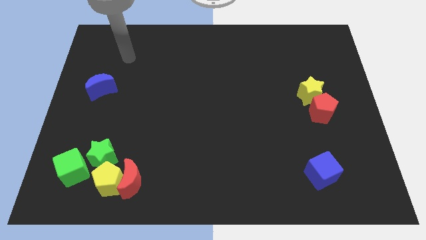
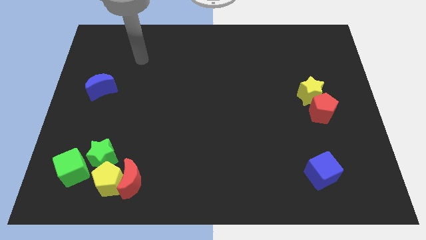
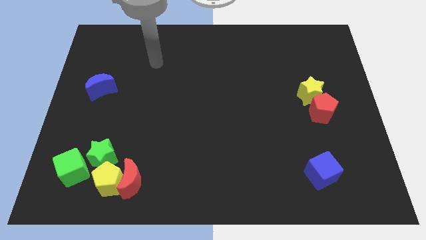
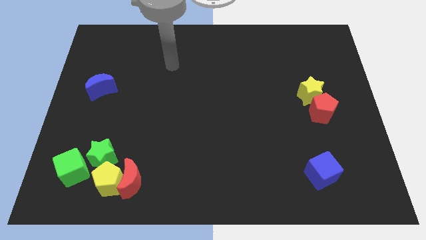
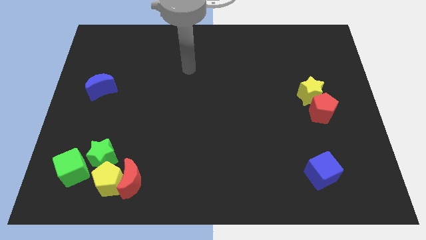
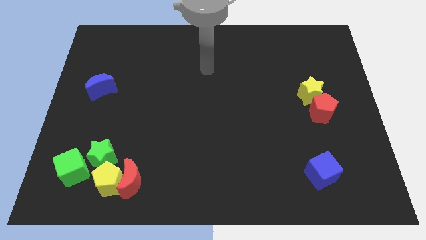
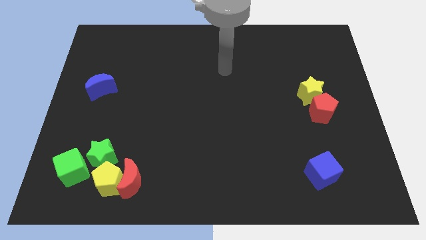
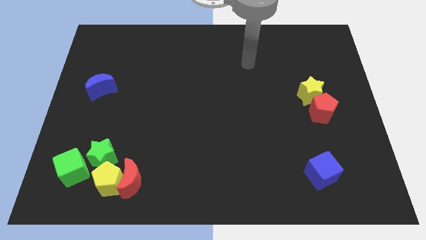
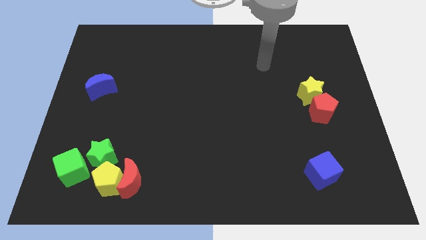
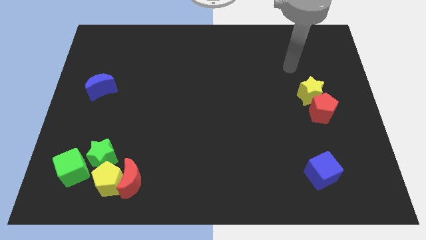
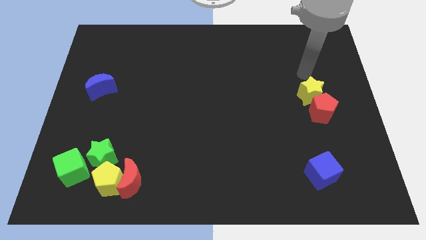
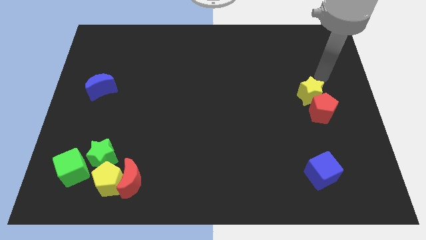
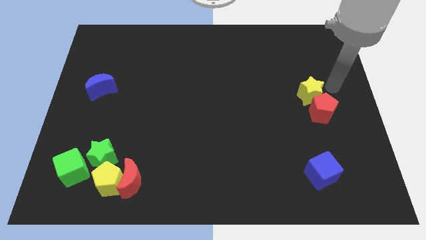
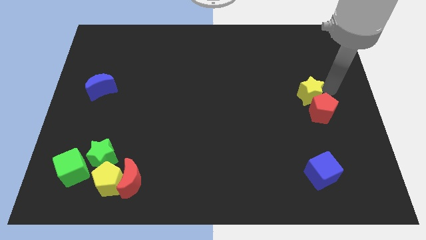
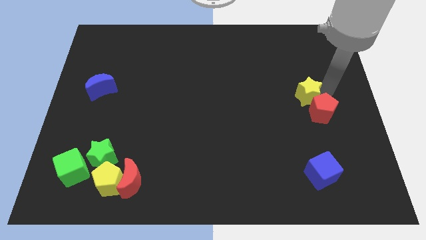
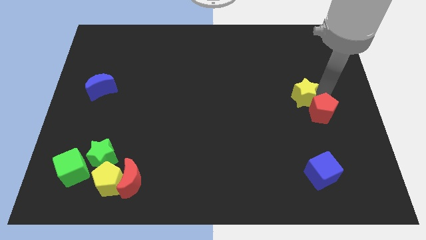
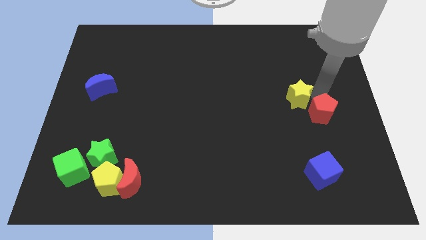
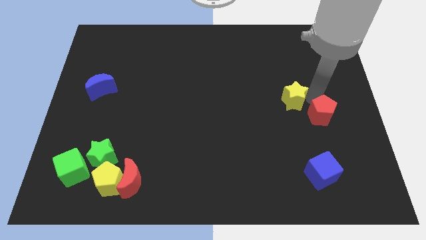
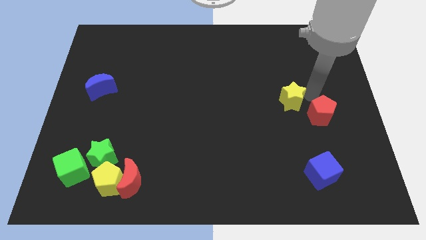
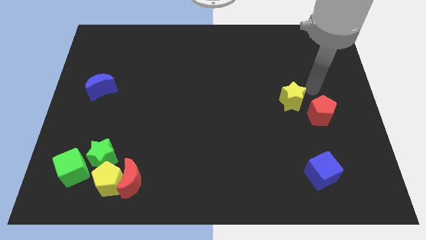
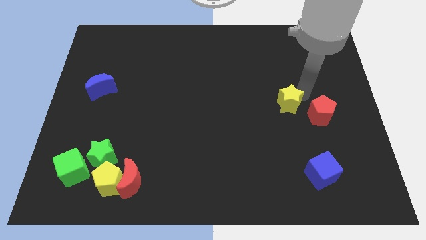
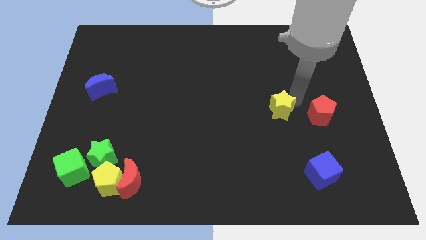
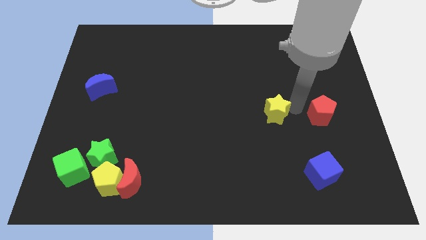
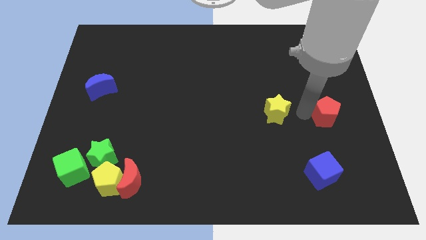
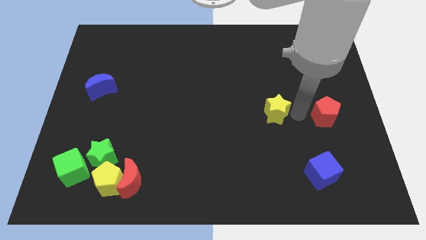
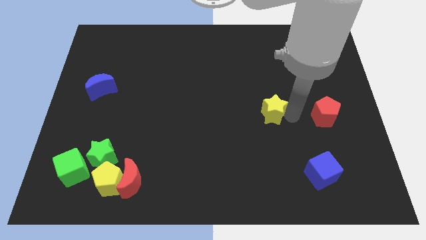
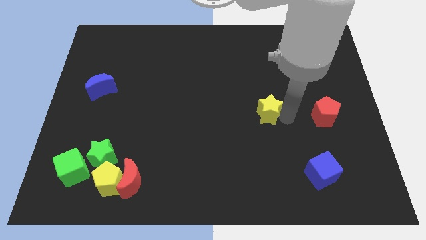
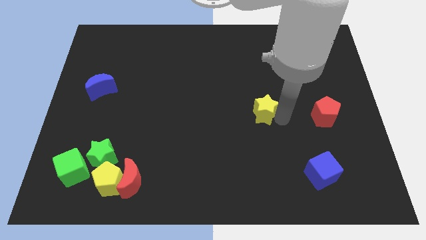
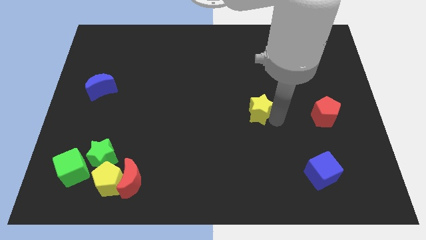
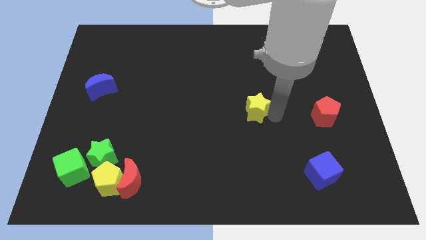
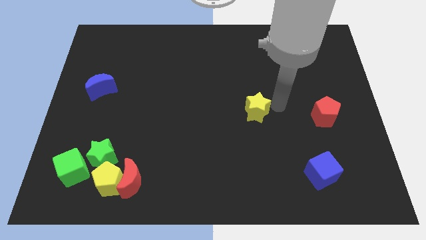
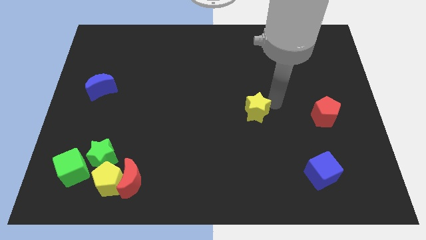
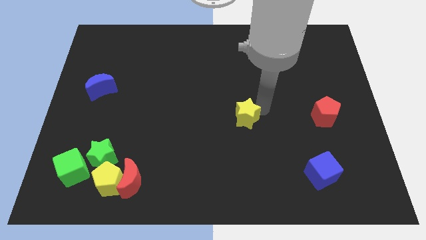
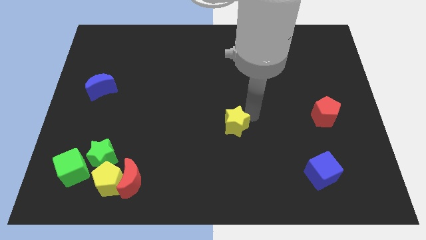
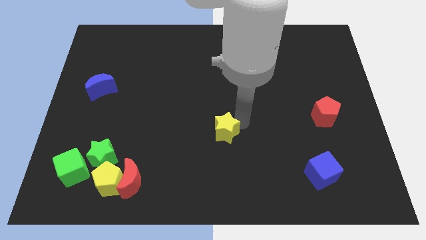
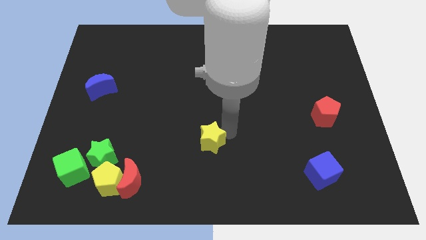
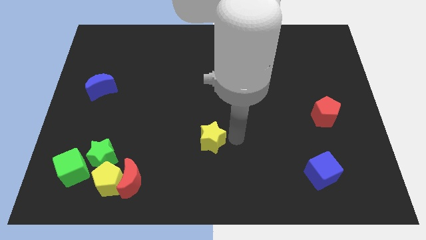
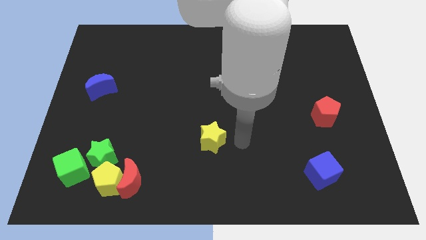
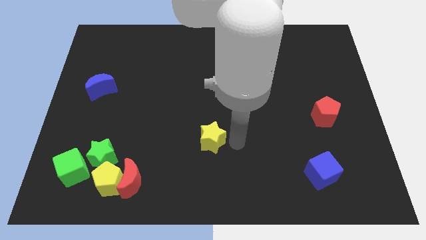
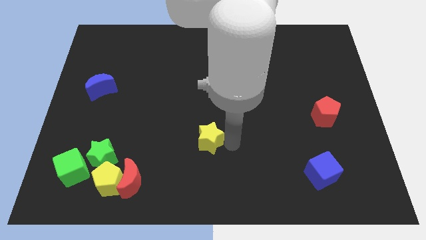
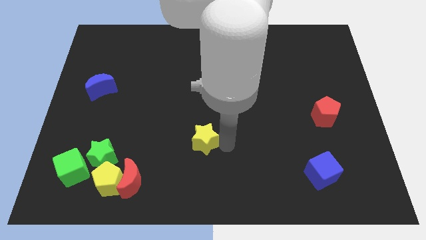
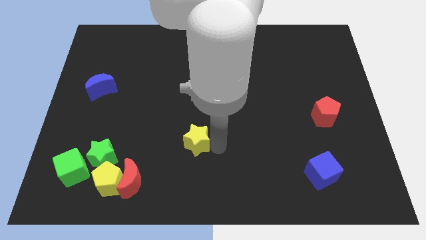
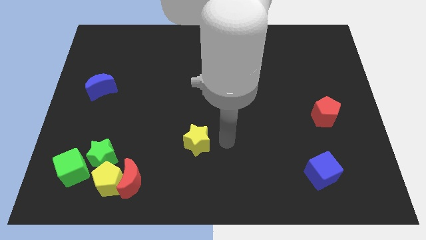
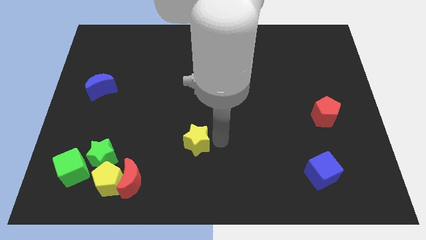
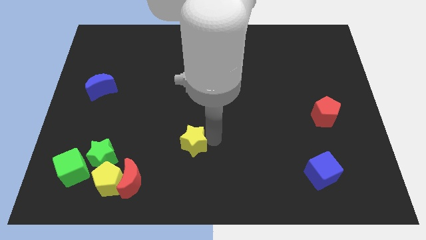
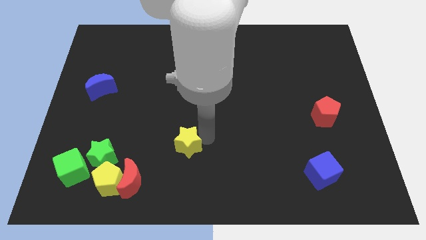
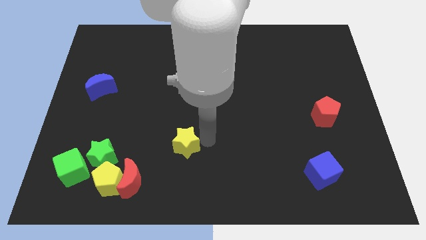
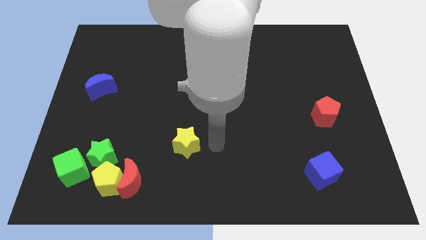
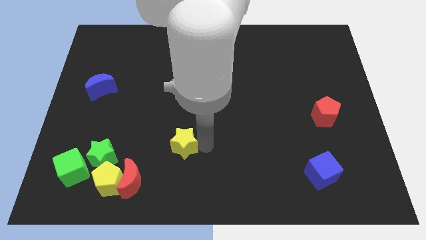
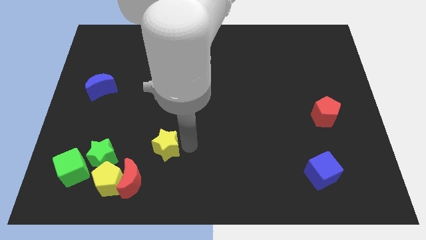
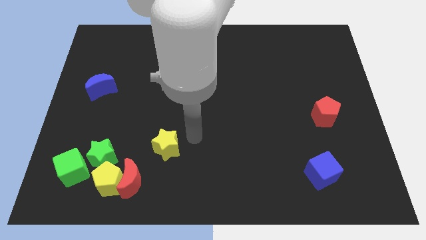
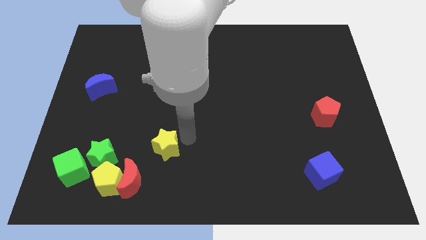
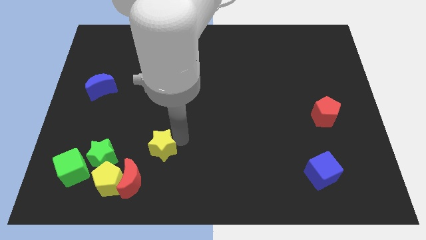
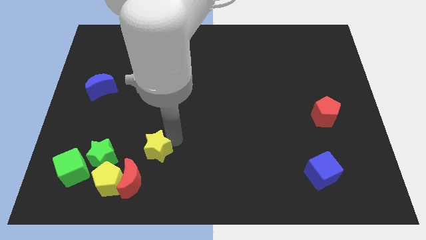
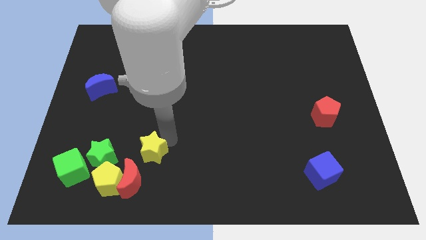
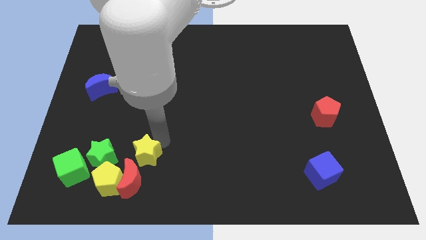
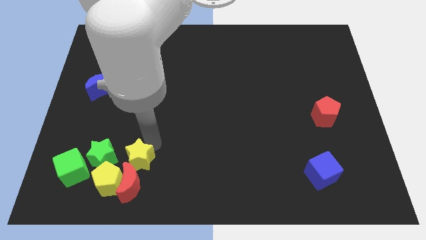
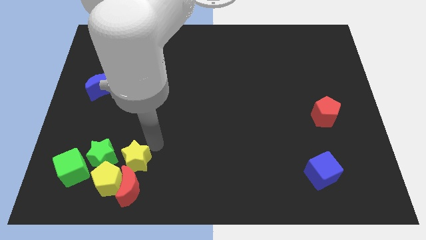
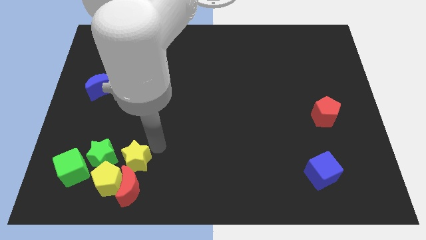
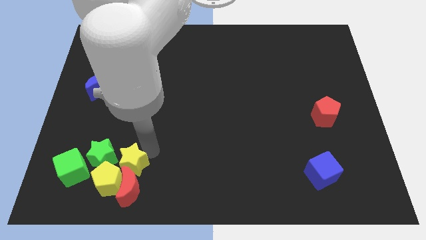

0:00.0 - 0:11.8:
move the yellow star close to the yellow pentagon
